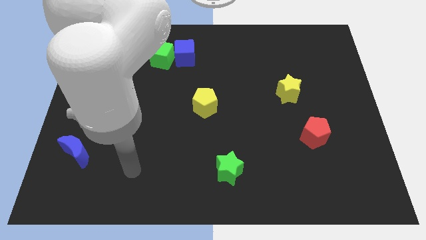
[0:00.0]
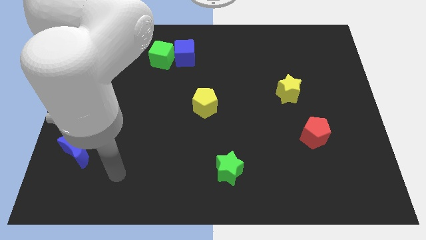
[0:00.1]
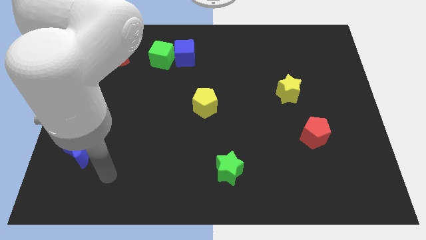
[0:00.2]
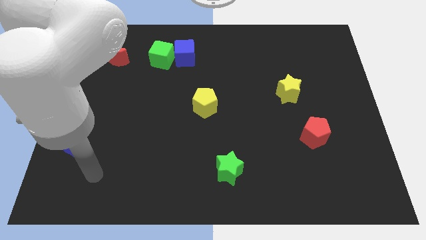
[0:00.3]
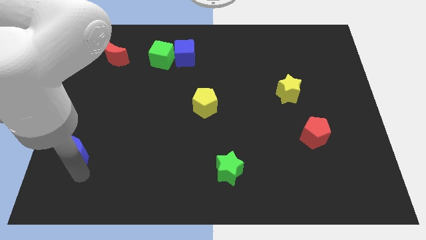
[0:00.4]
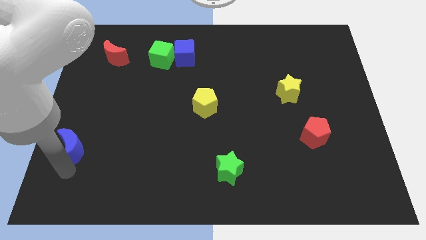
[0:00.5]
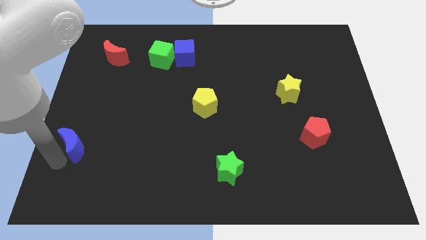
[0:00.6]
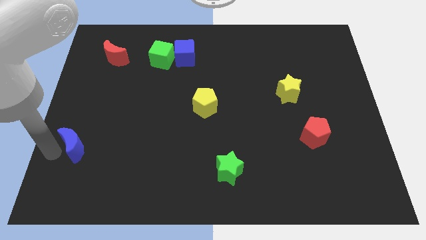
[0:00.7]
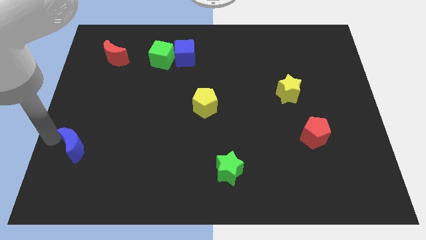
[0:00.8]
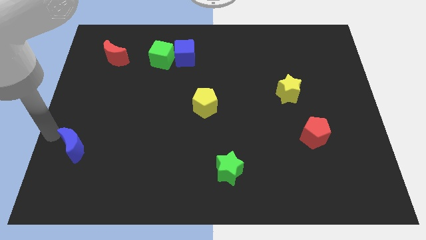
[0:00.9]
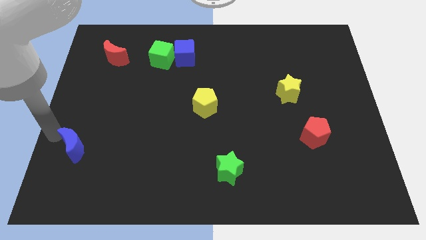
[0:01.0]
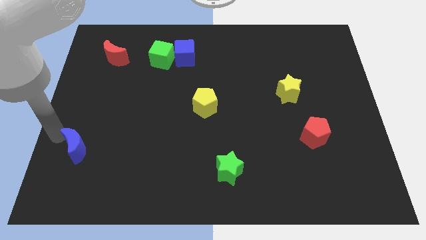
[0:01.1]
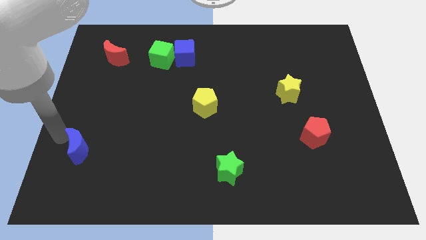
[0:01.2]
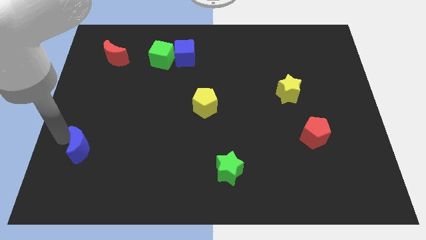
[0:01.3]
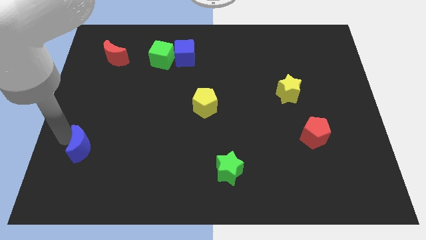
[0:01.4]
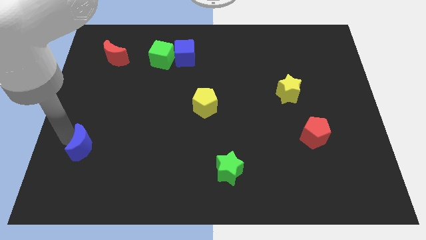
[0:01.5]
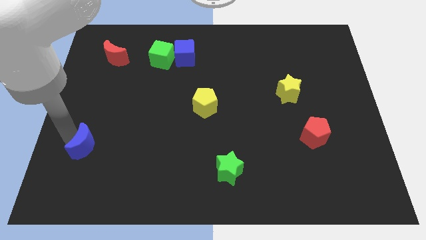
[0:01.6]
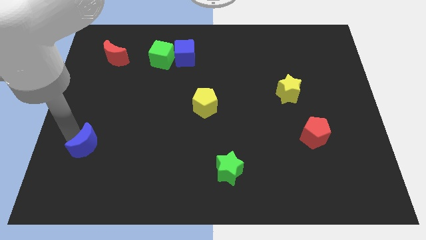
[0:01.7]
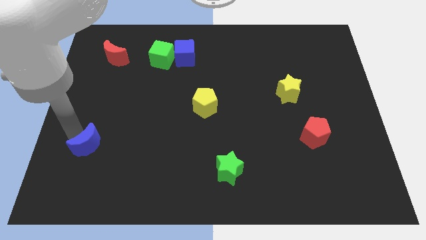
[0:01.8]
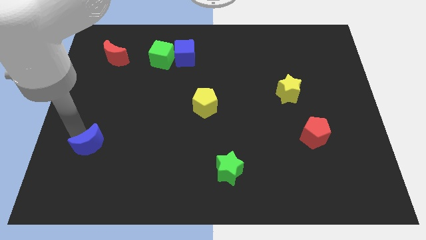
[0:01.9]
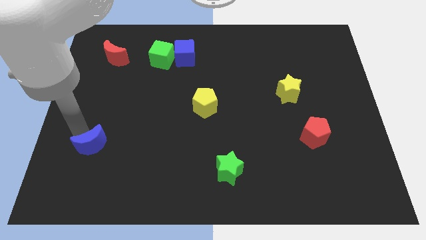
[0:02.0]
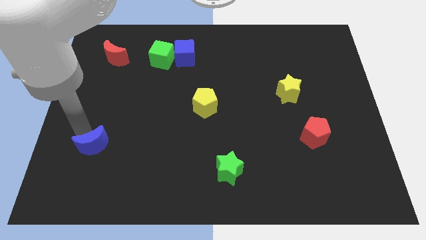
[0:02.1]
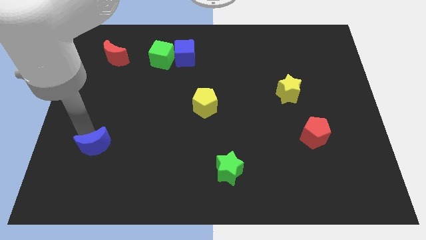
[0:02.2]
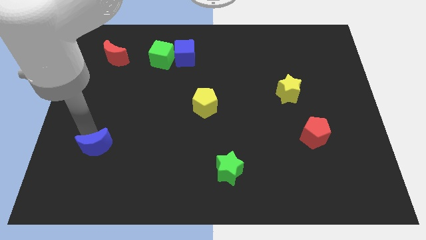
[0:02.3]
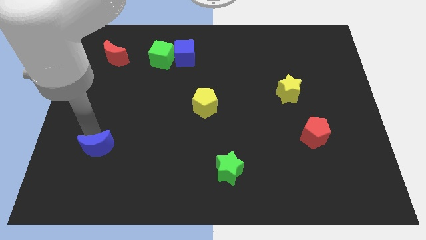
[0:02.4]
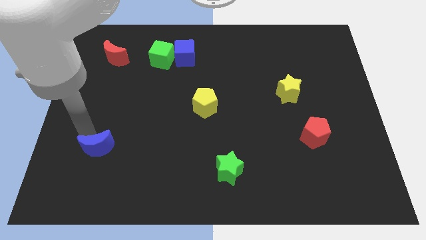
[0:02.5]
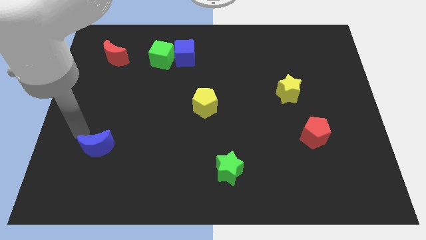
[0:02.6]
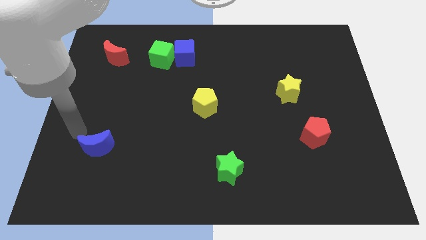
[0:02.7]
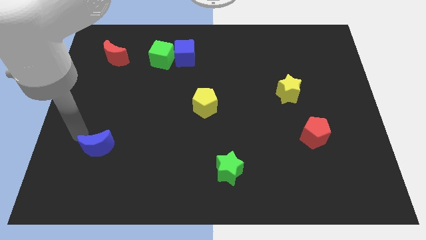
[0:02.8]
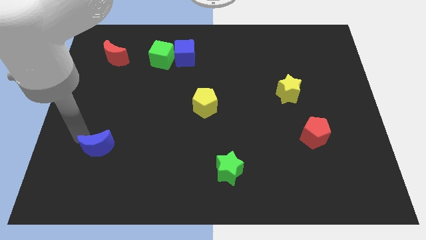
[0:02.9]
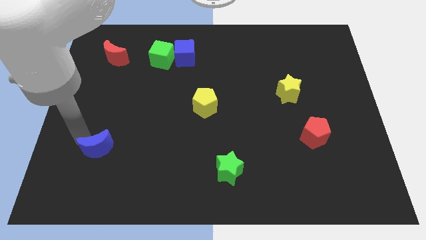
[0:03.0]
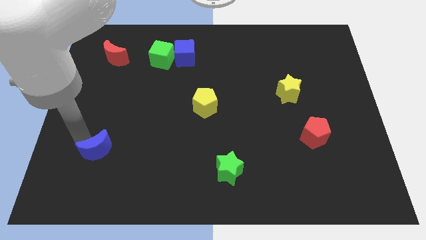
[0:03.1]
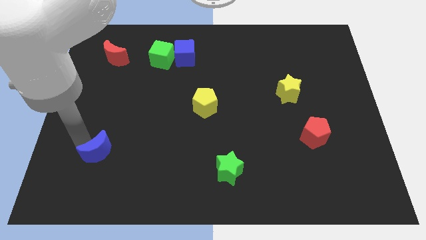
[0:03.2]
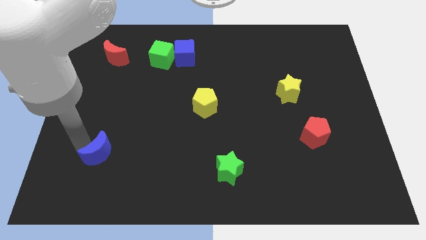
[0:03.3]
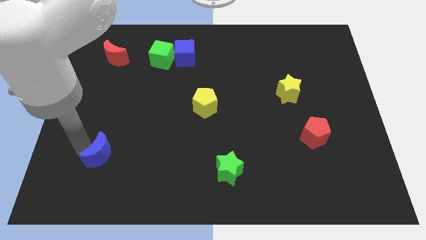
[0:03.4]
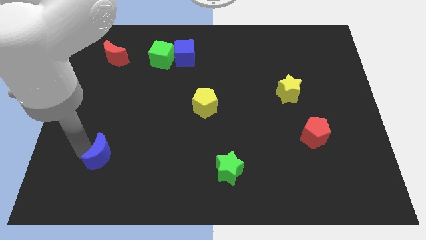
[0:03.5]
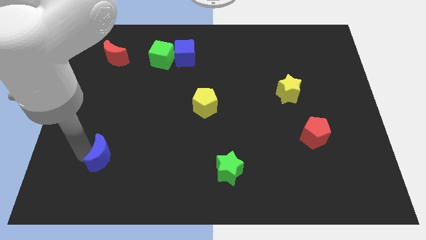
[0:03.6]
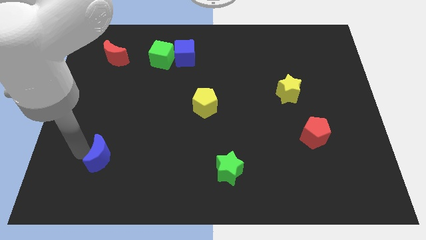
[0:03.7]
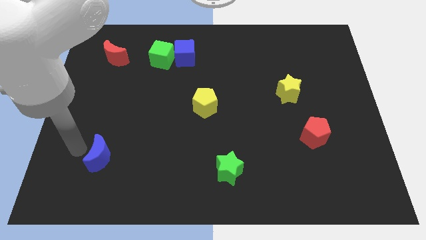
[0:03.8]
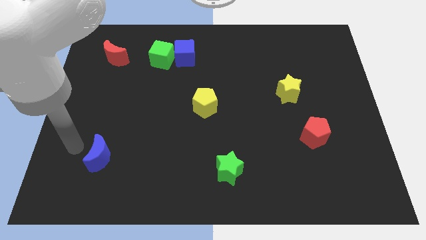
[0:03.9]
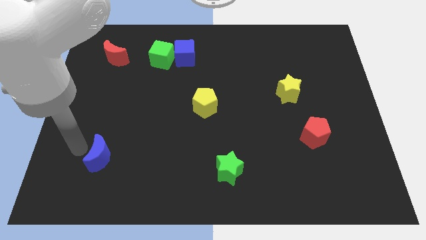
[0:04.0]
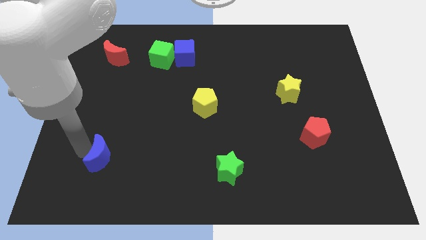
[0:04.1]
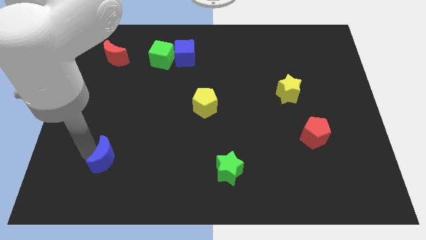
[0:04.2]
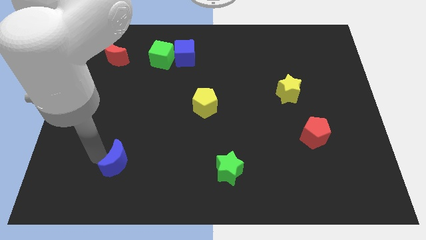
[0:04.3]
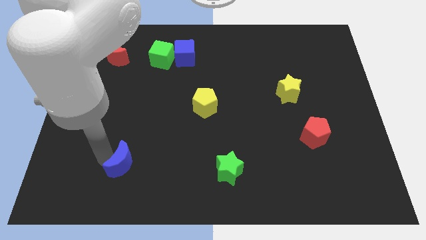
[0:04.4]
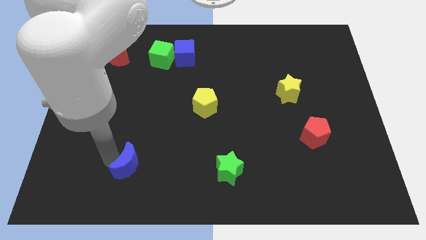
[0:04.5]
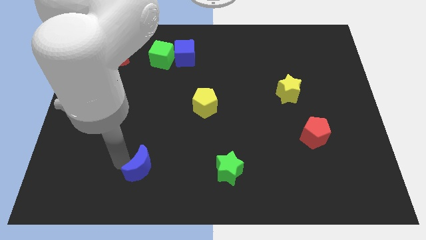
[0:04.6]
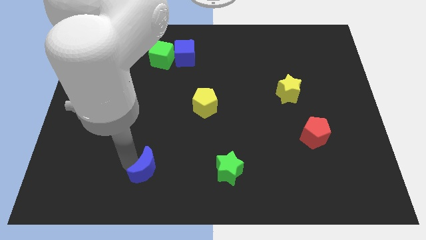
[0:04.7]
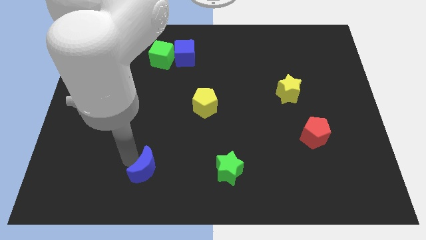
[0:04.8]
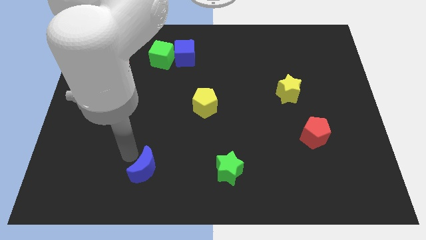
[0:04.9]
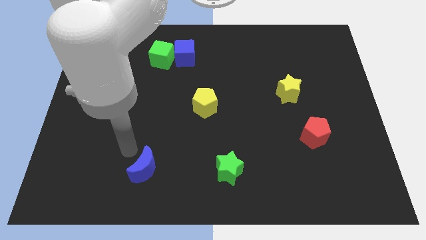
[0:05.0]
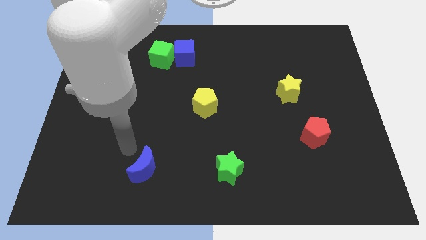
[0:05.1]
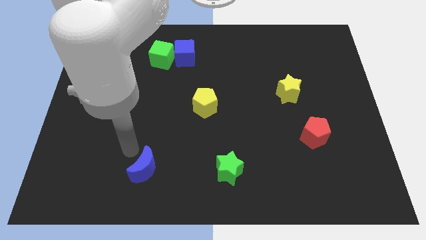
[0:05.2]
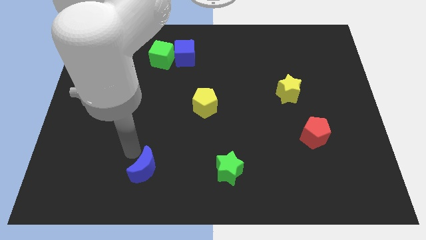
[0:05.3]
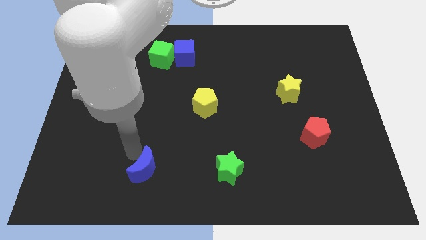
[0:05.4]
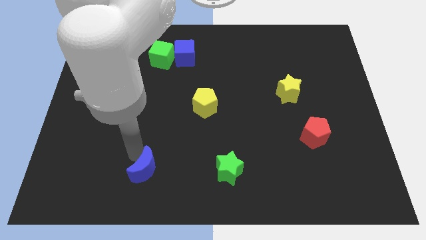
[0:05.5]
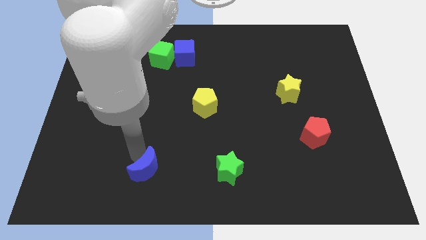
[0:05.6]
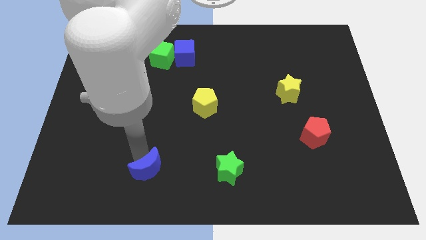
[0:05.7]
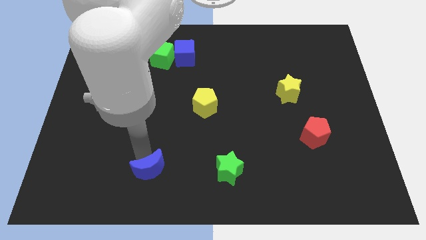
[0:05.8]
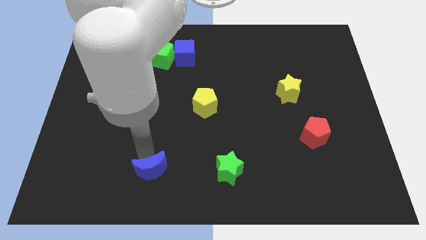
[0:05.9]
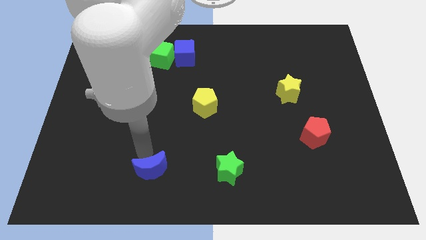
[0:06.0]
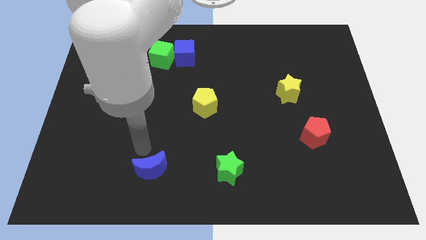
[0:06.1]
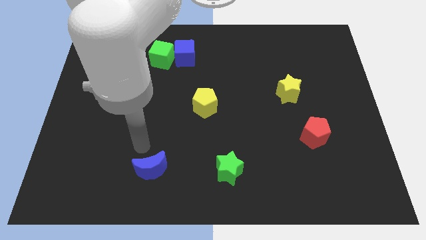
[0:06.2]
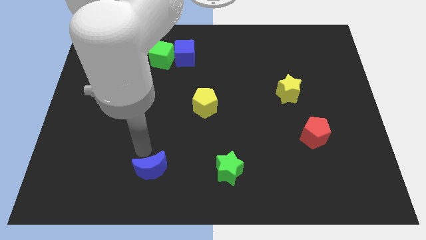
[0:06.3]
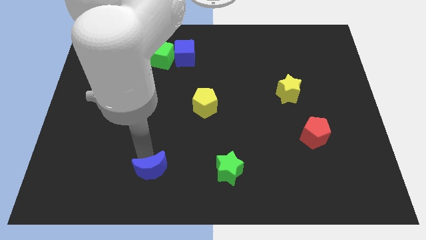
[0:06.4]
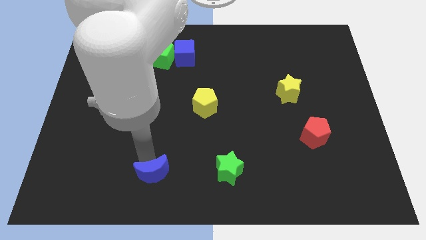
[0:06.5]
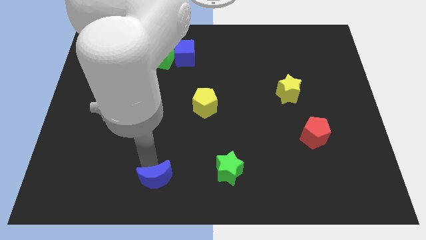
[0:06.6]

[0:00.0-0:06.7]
move the blue moon to the bottom
